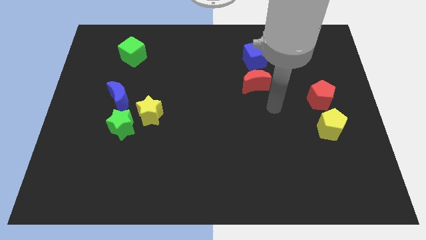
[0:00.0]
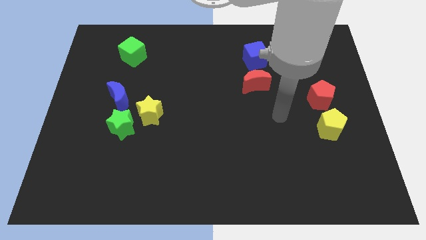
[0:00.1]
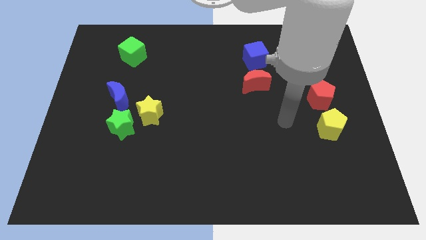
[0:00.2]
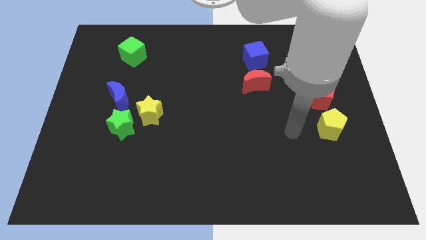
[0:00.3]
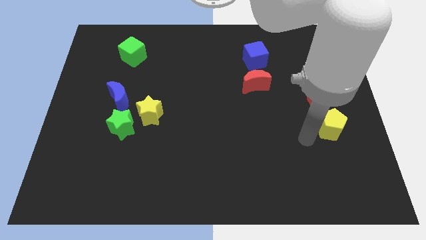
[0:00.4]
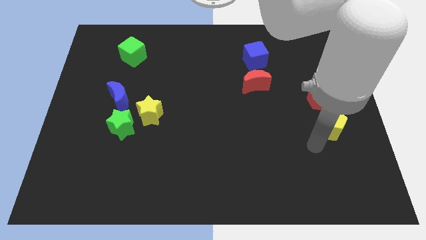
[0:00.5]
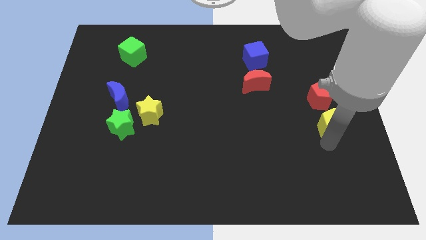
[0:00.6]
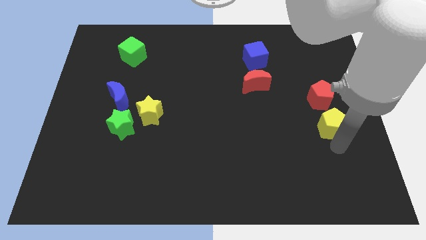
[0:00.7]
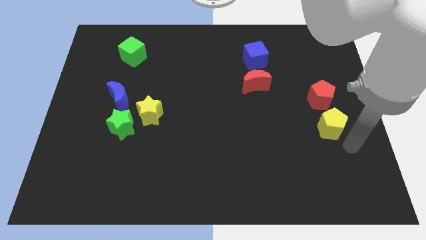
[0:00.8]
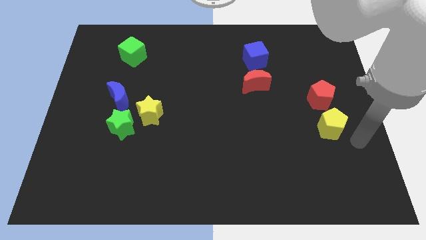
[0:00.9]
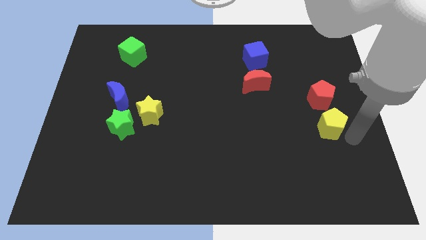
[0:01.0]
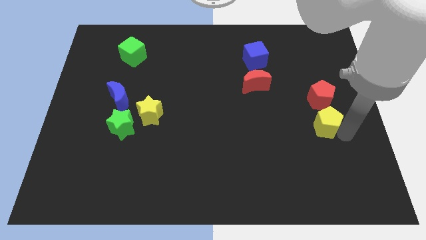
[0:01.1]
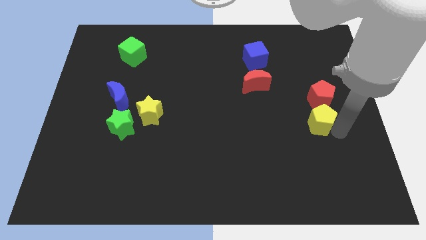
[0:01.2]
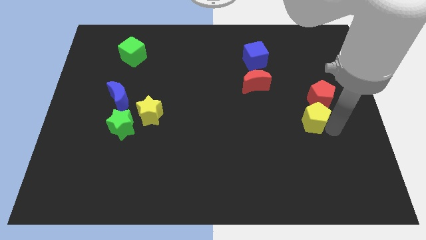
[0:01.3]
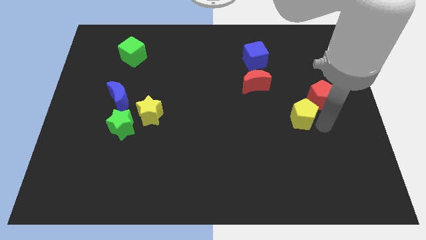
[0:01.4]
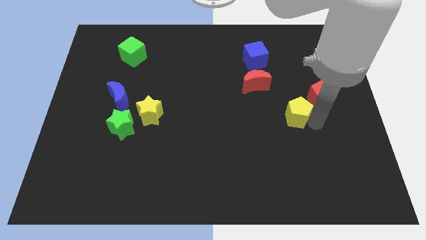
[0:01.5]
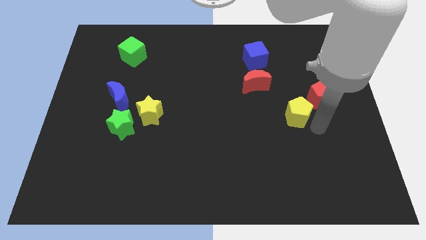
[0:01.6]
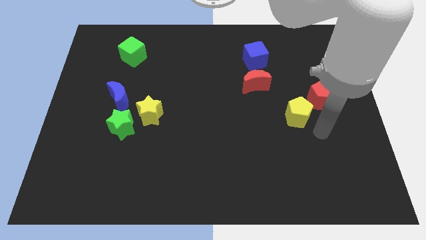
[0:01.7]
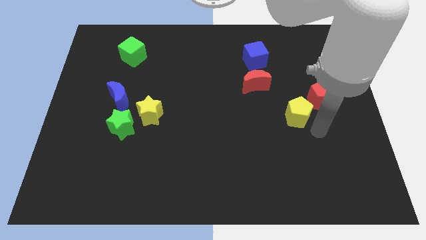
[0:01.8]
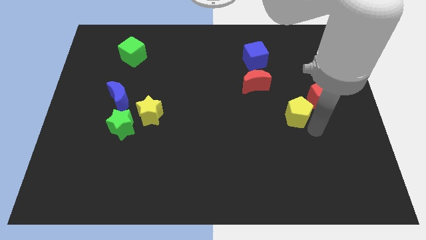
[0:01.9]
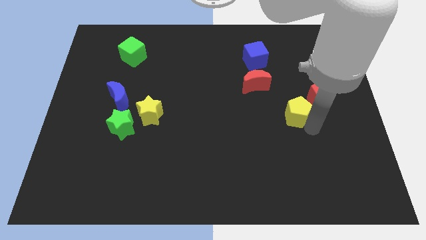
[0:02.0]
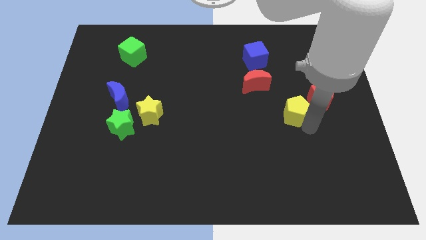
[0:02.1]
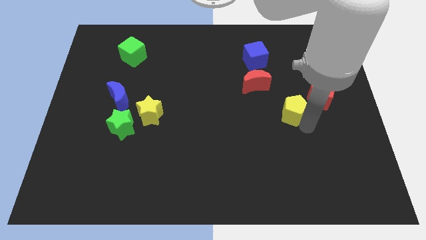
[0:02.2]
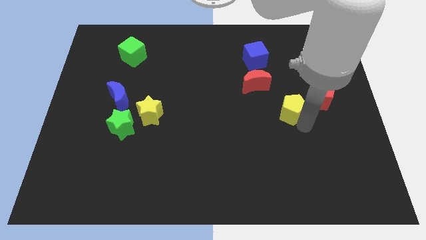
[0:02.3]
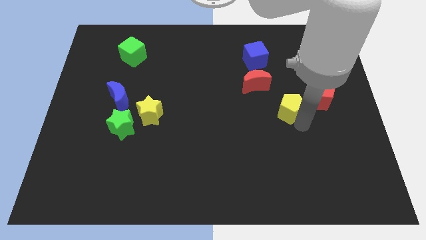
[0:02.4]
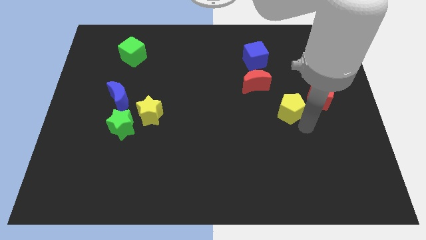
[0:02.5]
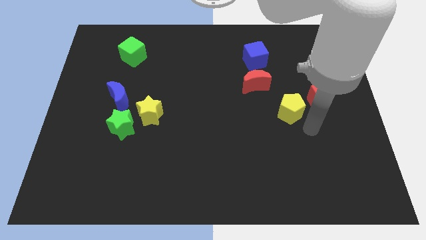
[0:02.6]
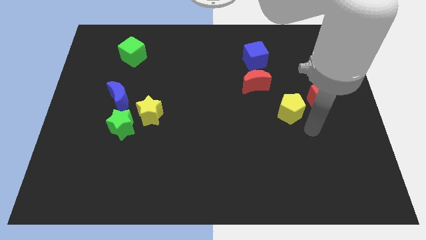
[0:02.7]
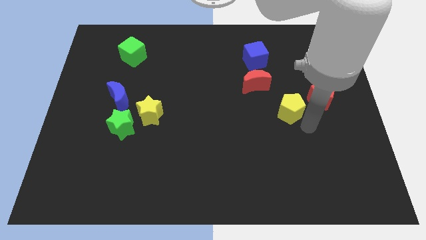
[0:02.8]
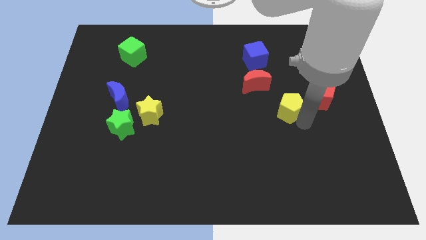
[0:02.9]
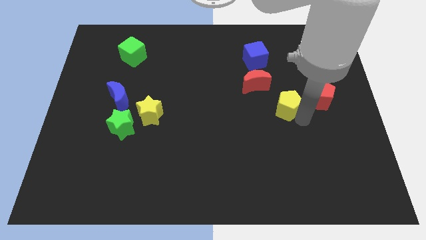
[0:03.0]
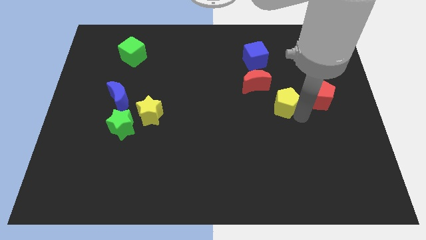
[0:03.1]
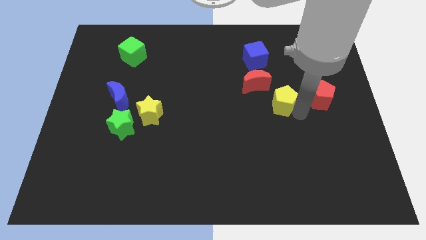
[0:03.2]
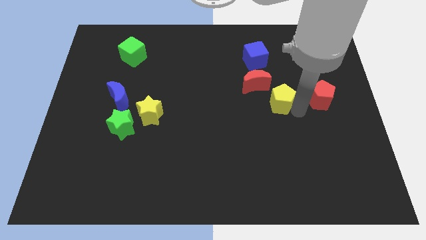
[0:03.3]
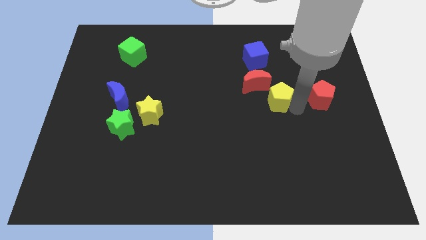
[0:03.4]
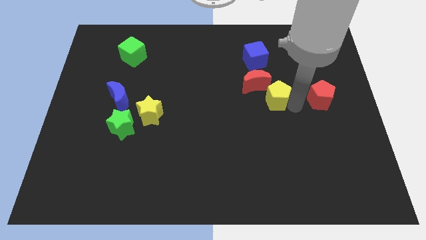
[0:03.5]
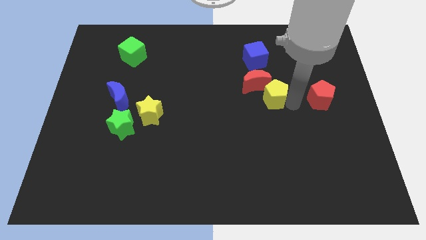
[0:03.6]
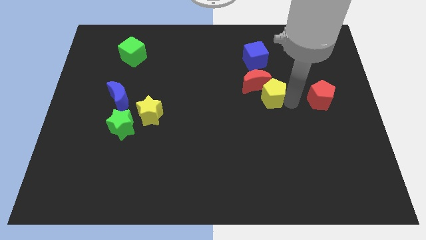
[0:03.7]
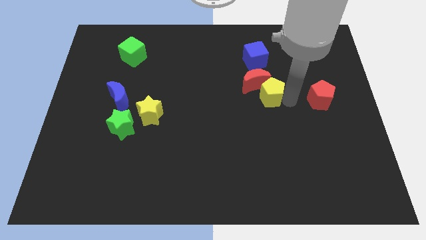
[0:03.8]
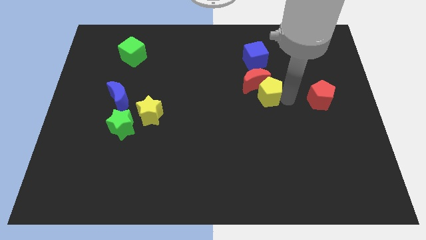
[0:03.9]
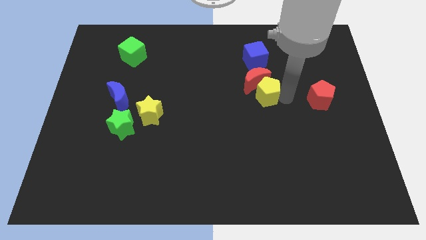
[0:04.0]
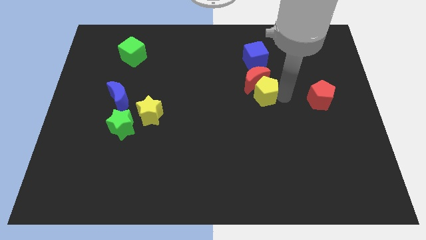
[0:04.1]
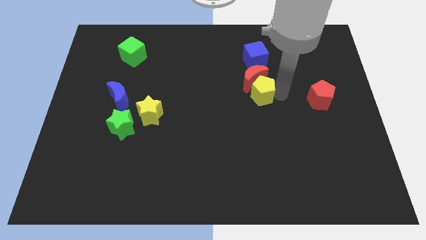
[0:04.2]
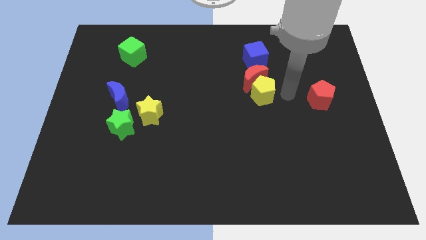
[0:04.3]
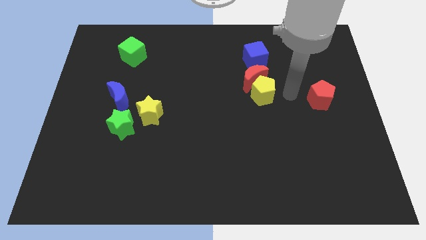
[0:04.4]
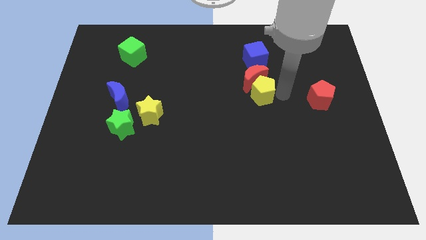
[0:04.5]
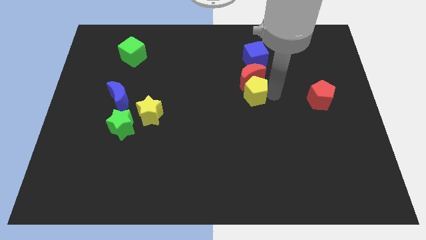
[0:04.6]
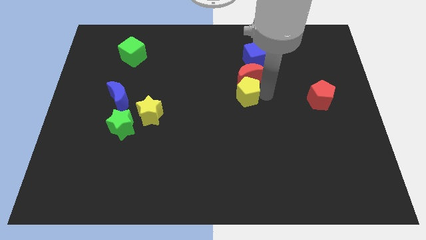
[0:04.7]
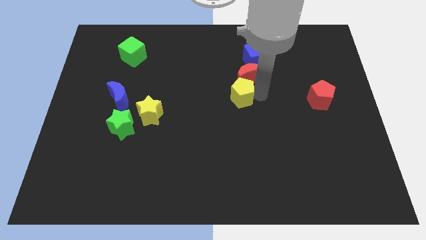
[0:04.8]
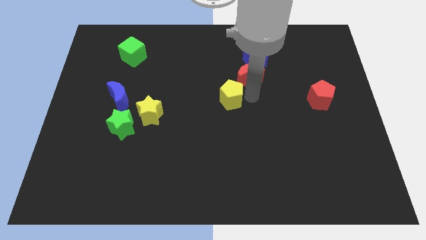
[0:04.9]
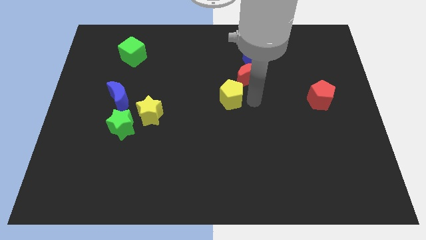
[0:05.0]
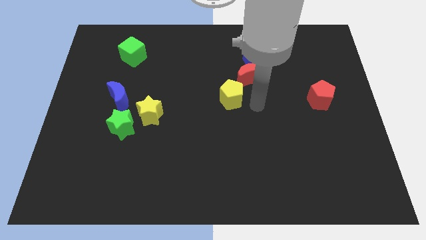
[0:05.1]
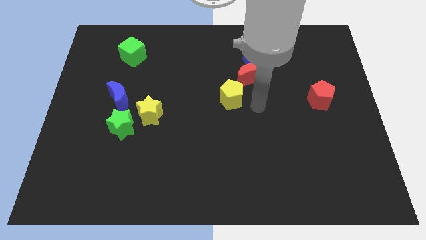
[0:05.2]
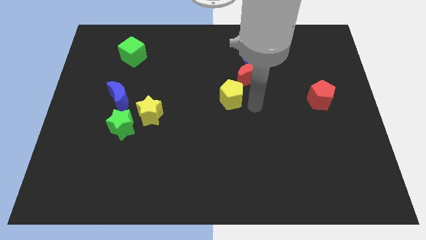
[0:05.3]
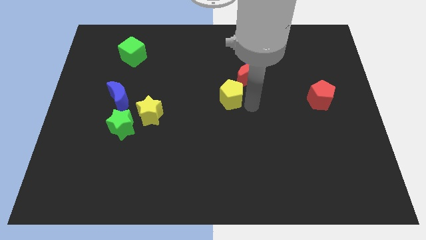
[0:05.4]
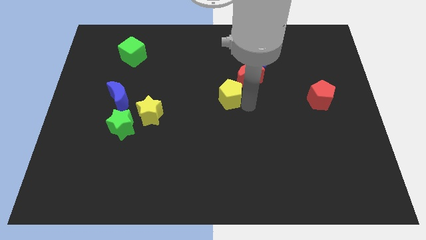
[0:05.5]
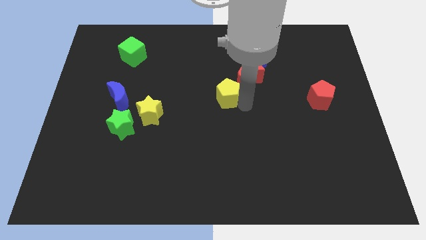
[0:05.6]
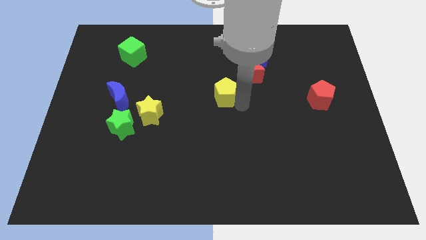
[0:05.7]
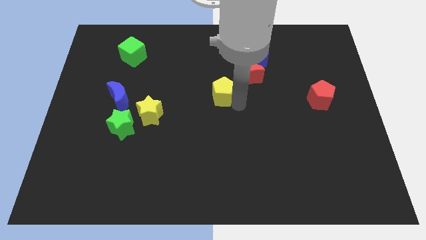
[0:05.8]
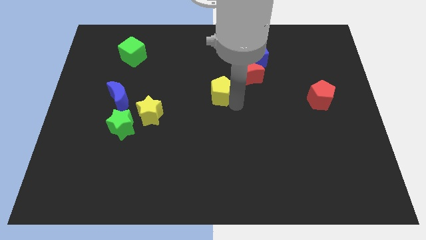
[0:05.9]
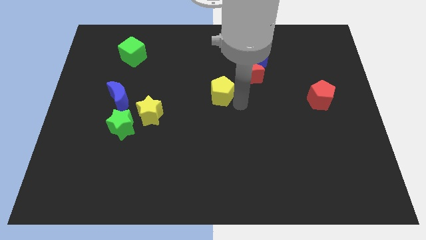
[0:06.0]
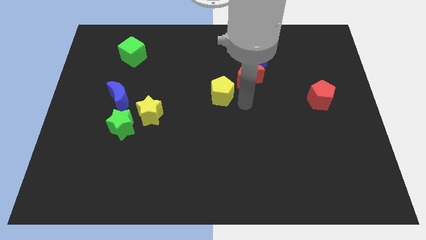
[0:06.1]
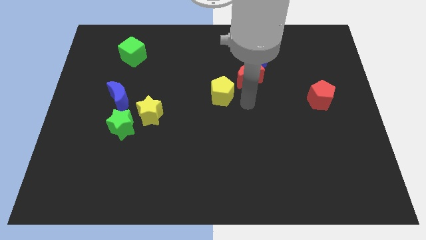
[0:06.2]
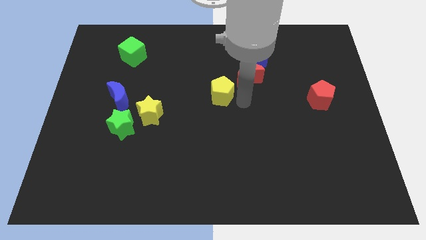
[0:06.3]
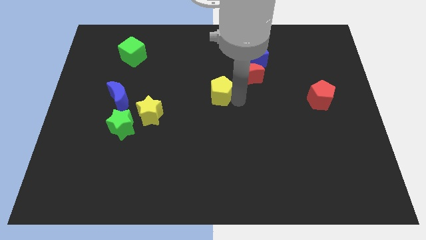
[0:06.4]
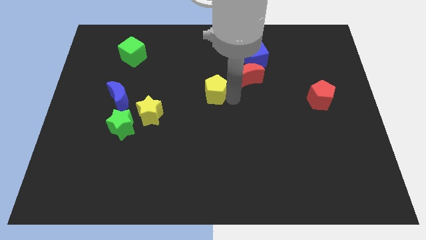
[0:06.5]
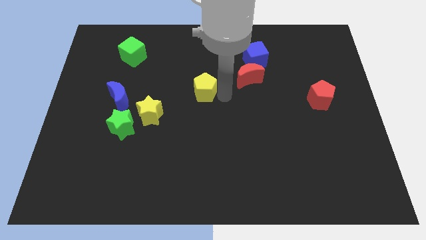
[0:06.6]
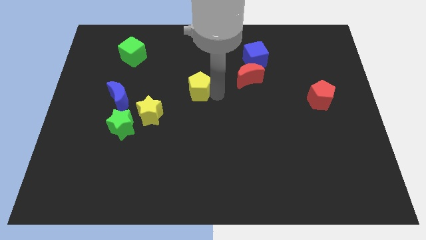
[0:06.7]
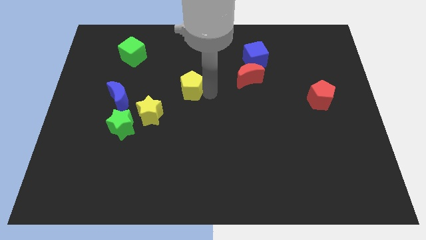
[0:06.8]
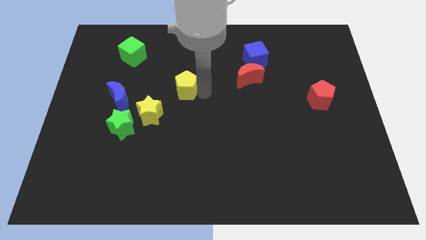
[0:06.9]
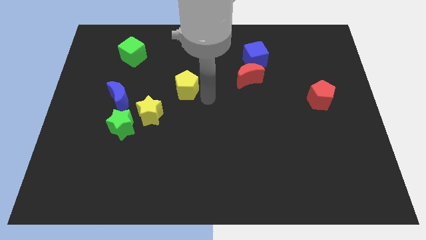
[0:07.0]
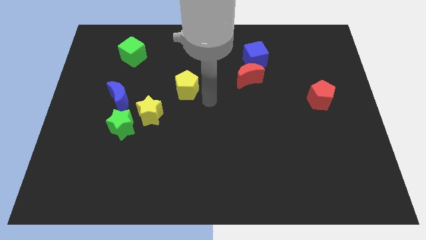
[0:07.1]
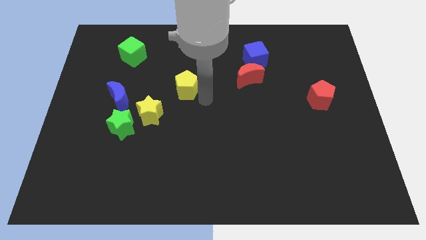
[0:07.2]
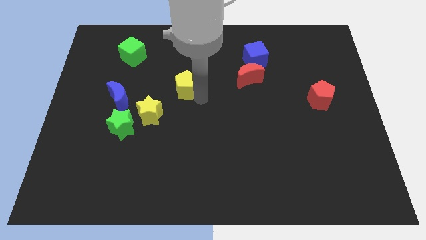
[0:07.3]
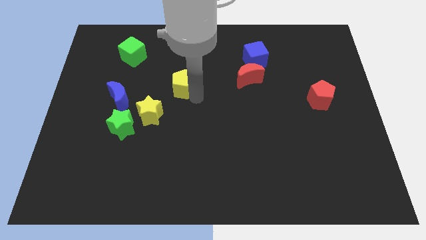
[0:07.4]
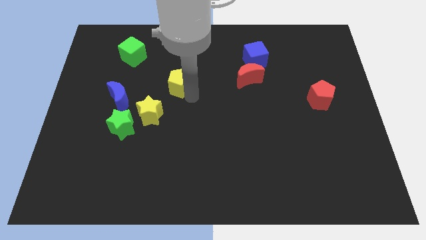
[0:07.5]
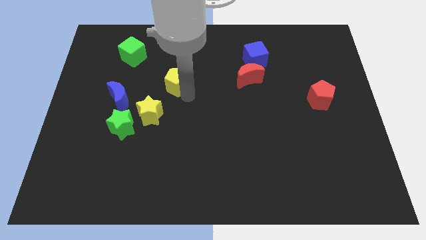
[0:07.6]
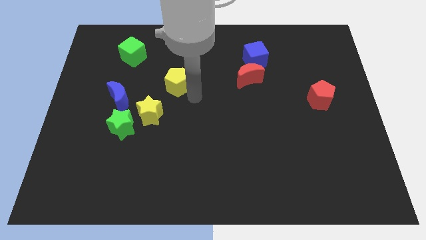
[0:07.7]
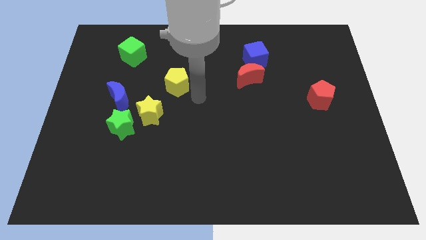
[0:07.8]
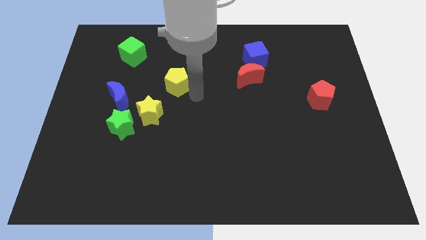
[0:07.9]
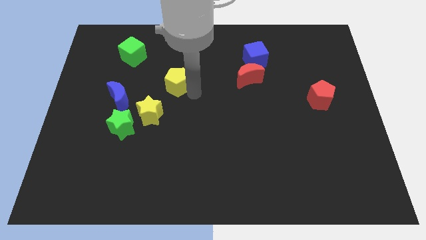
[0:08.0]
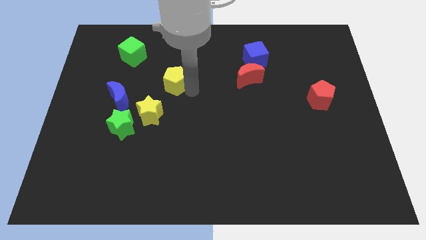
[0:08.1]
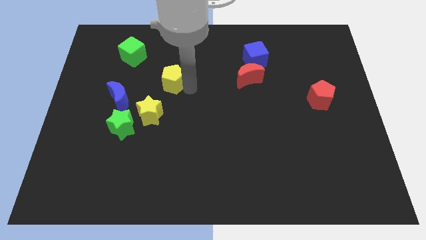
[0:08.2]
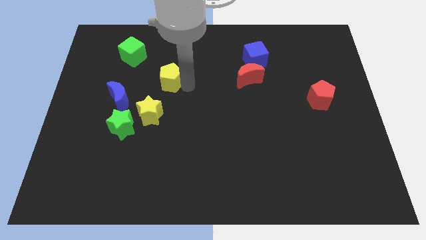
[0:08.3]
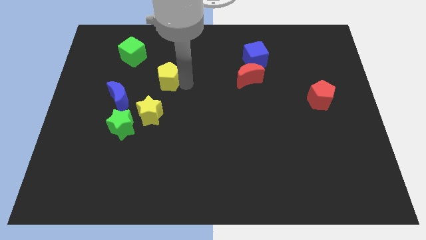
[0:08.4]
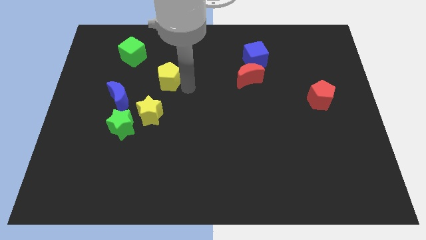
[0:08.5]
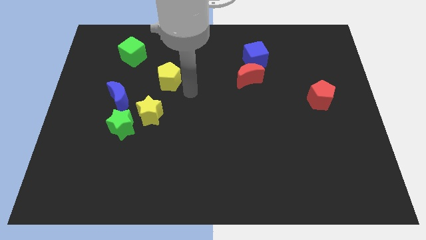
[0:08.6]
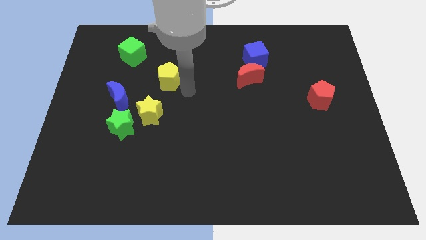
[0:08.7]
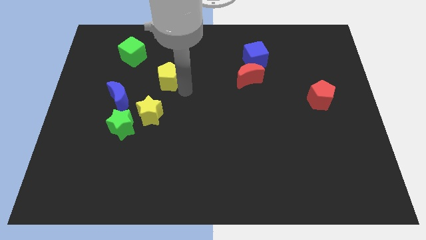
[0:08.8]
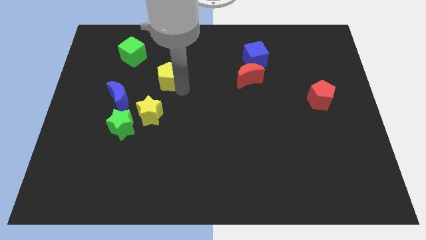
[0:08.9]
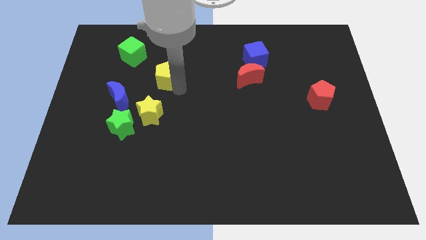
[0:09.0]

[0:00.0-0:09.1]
move the yellow pentagon to the bottom right of the green cube
